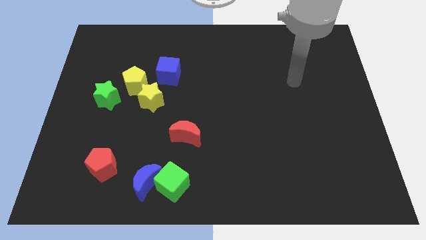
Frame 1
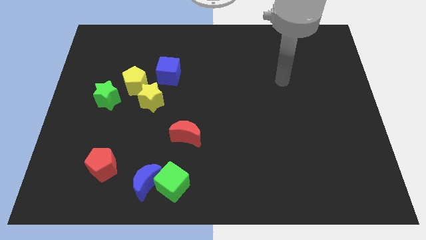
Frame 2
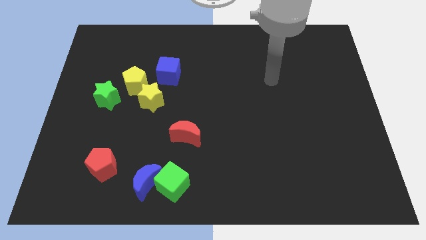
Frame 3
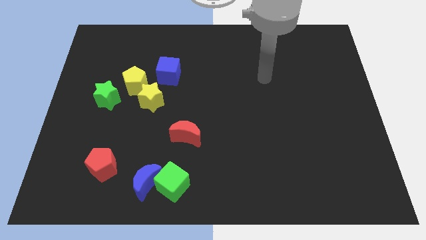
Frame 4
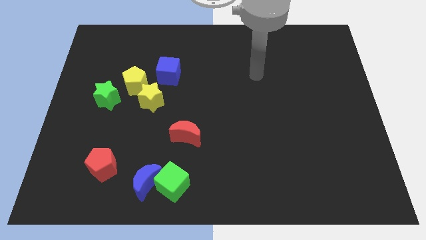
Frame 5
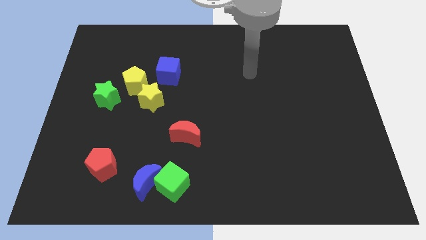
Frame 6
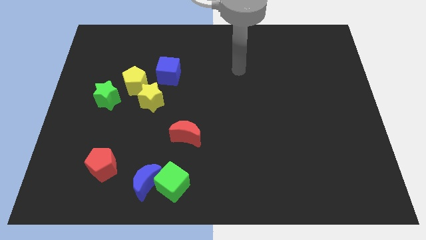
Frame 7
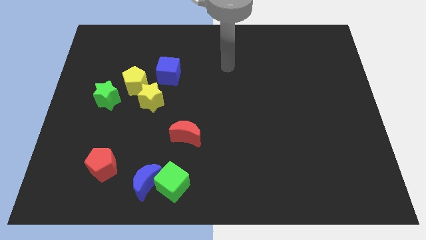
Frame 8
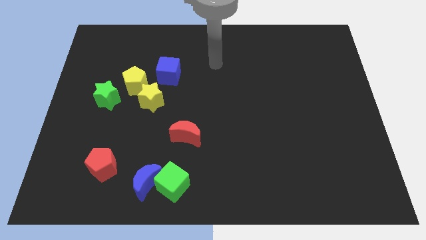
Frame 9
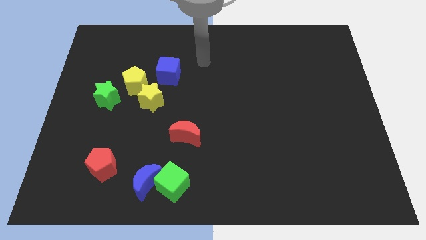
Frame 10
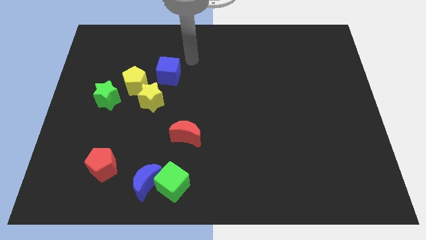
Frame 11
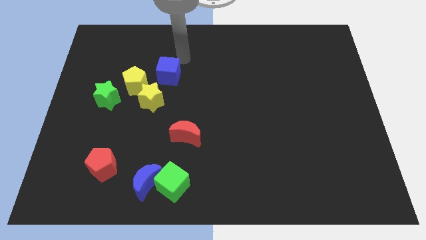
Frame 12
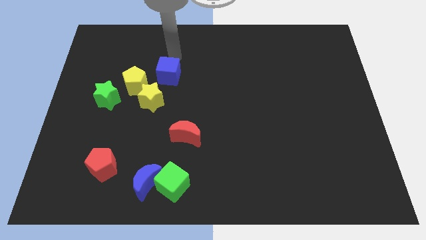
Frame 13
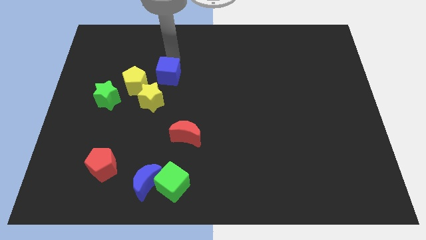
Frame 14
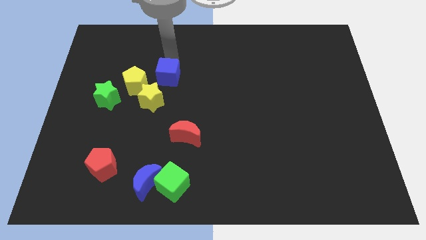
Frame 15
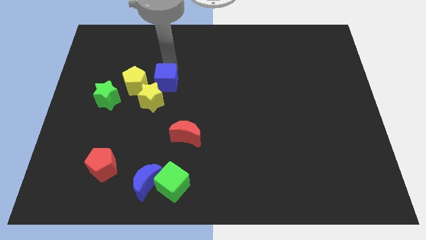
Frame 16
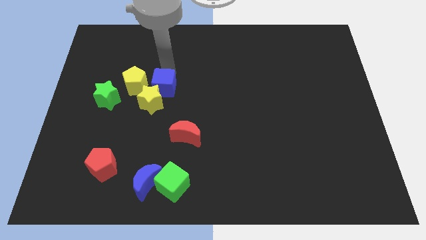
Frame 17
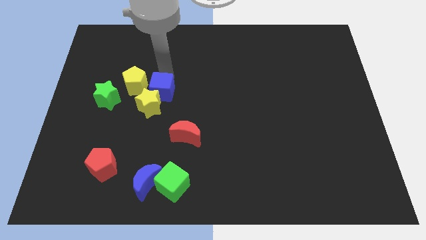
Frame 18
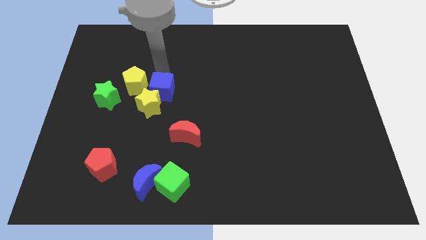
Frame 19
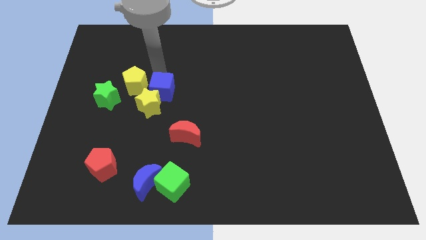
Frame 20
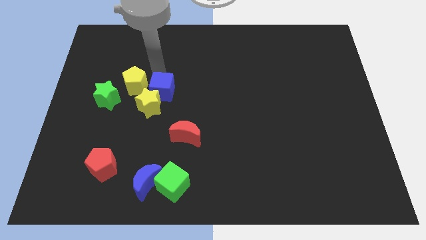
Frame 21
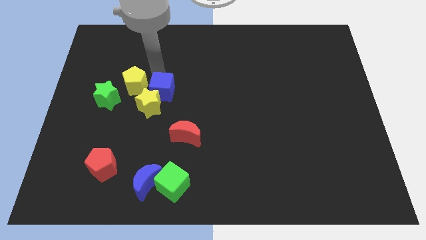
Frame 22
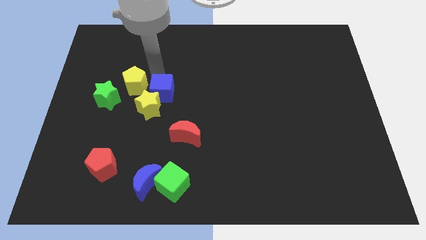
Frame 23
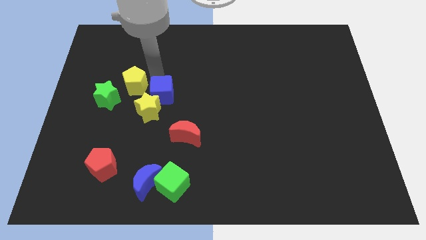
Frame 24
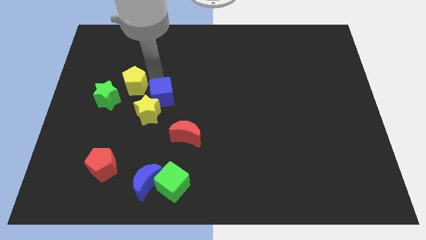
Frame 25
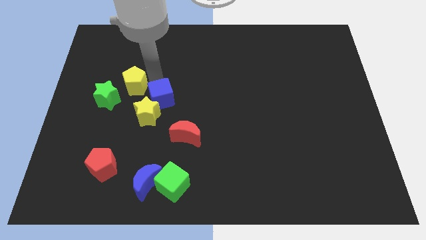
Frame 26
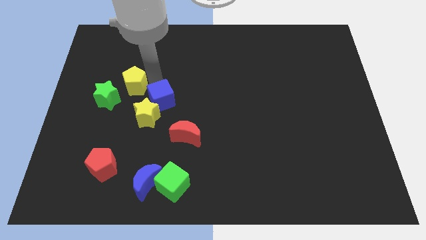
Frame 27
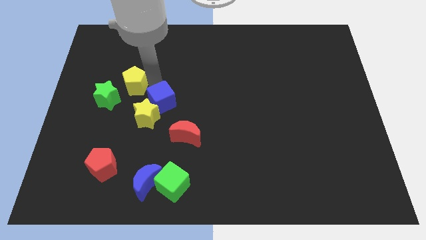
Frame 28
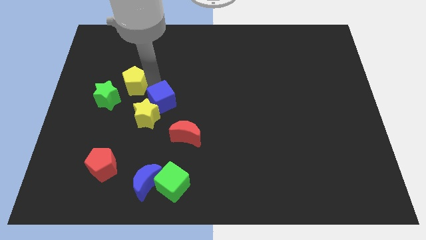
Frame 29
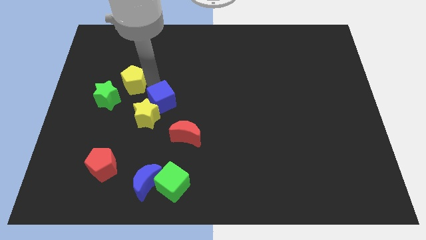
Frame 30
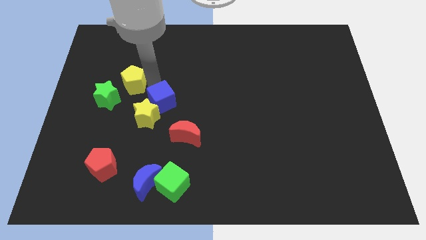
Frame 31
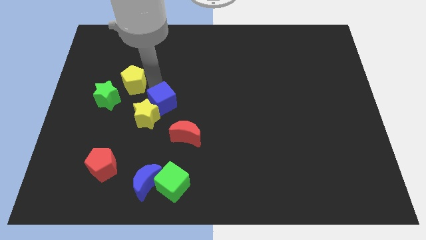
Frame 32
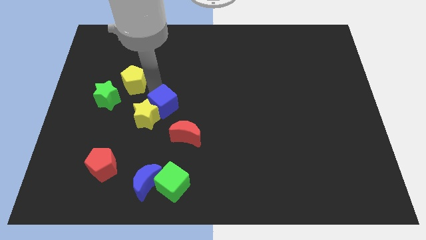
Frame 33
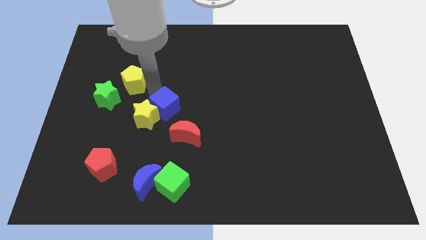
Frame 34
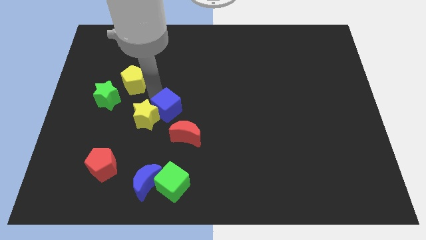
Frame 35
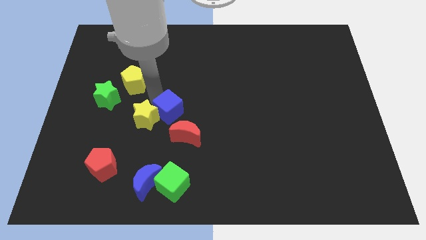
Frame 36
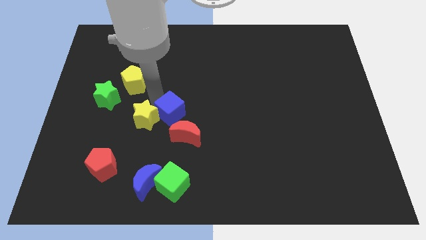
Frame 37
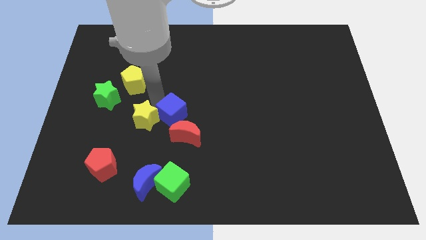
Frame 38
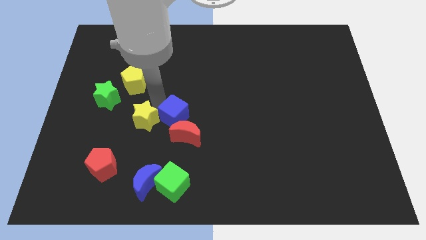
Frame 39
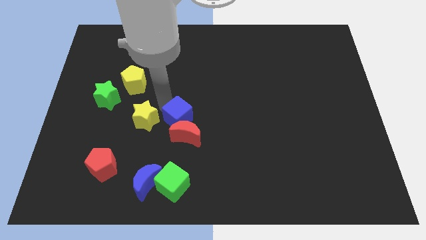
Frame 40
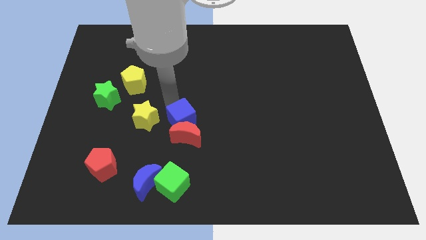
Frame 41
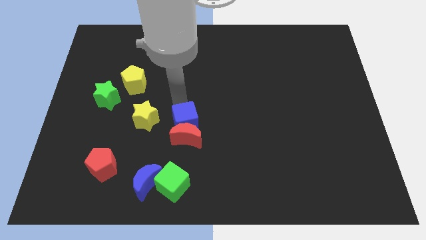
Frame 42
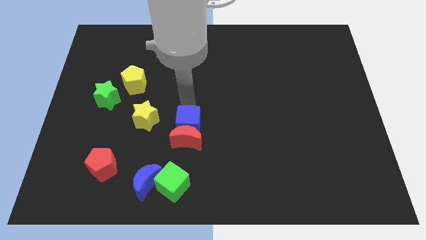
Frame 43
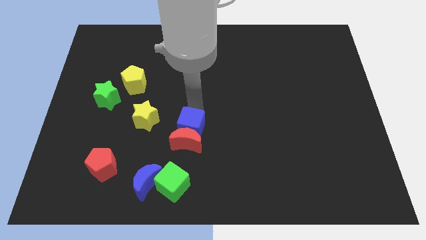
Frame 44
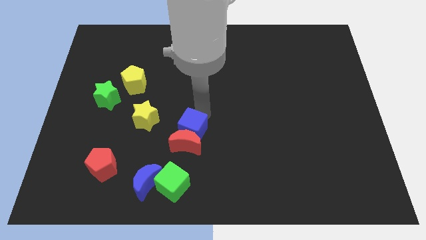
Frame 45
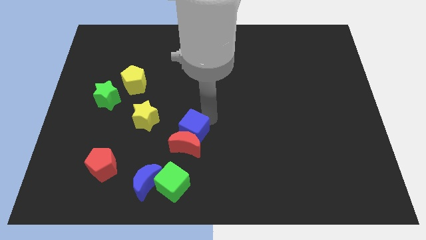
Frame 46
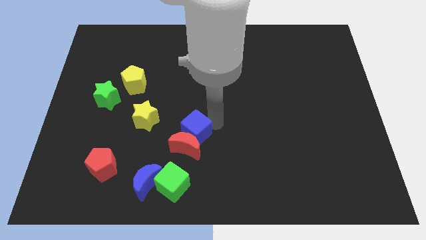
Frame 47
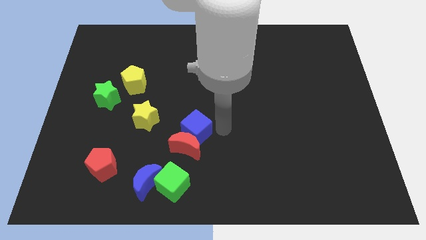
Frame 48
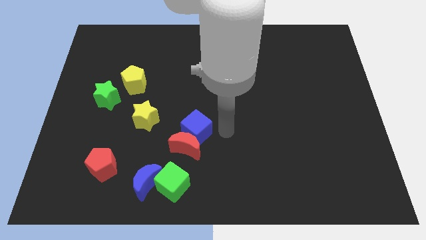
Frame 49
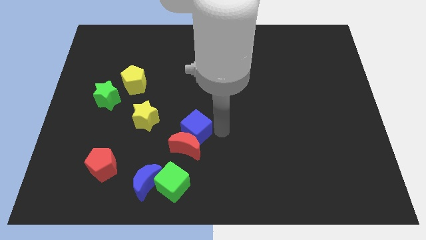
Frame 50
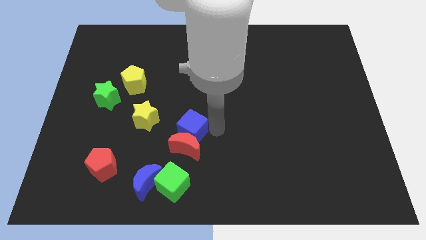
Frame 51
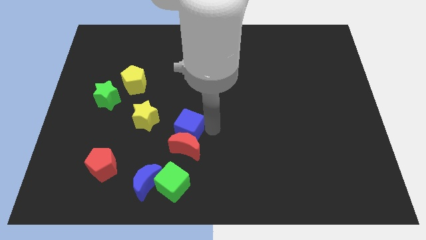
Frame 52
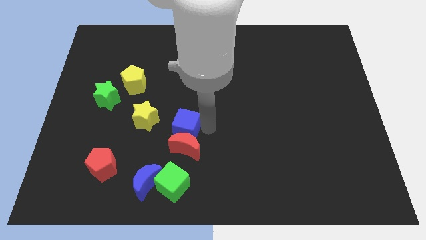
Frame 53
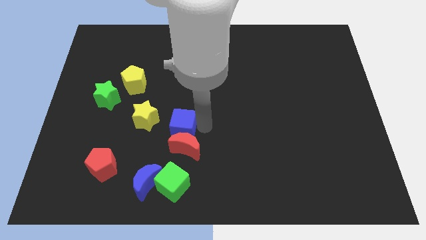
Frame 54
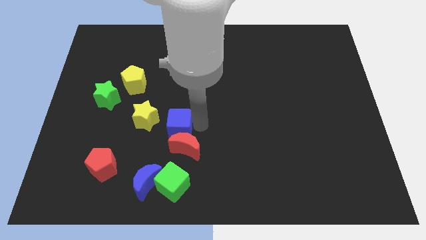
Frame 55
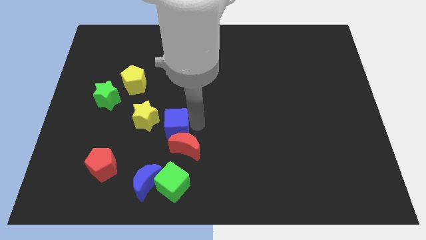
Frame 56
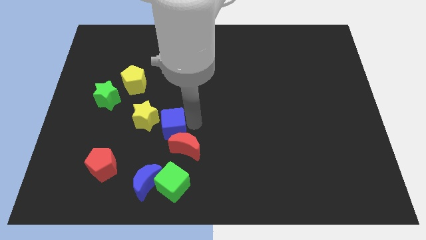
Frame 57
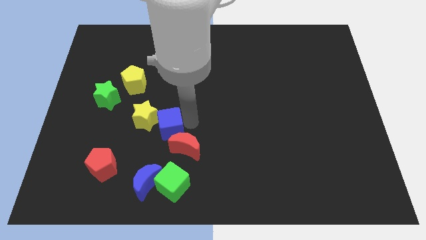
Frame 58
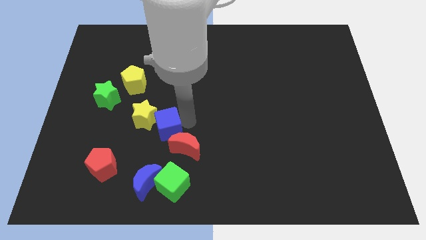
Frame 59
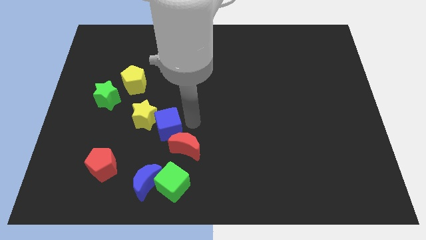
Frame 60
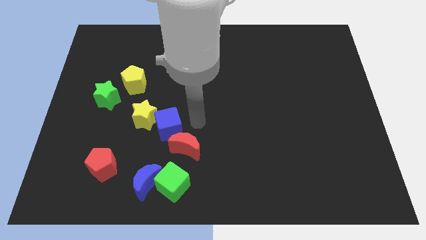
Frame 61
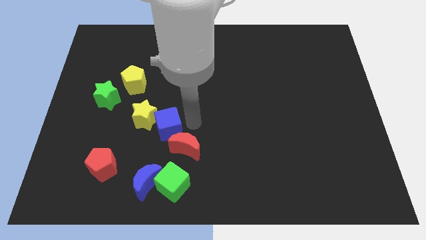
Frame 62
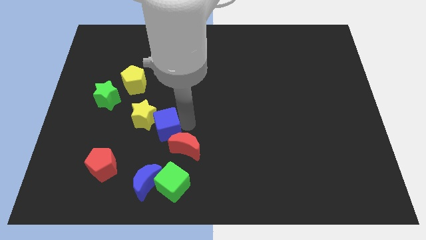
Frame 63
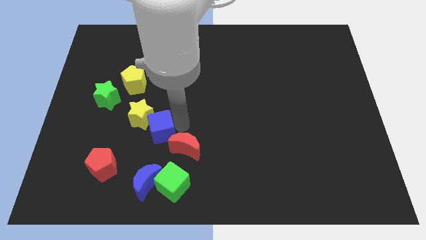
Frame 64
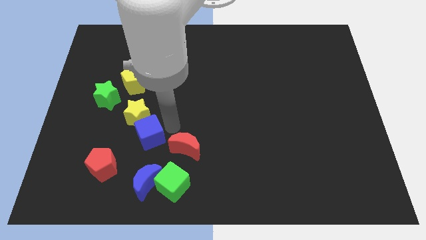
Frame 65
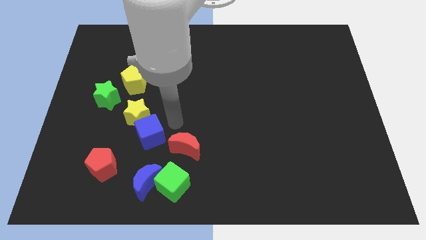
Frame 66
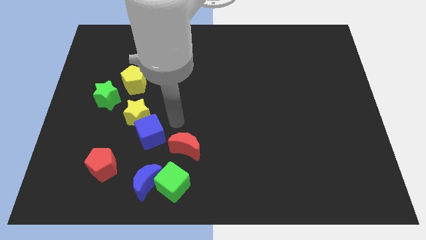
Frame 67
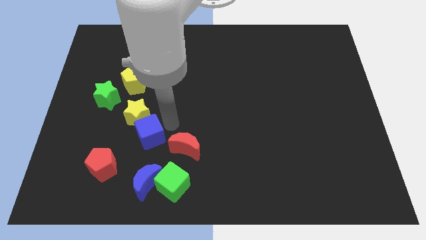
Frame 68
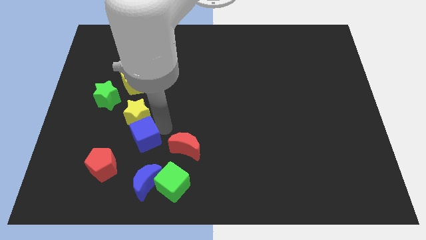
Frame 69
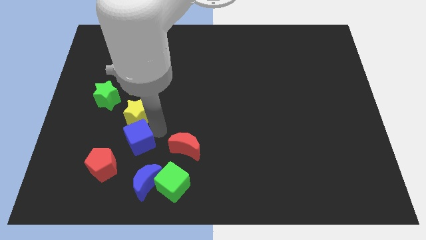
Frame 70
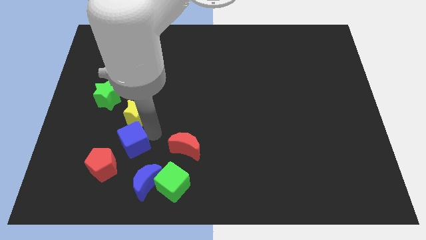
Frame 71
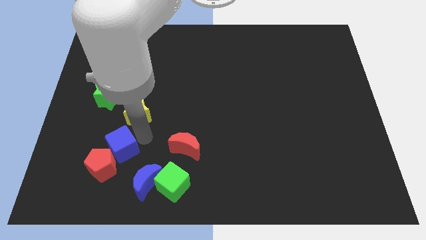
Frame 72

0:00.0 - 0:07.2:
slide the blue cube towards the red pentagon

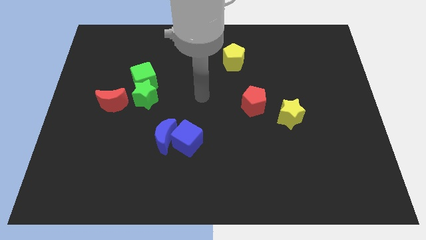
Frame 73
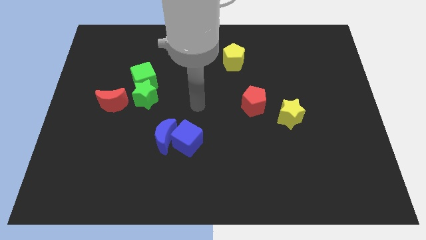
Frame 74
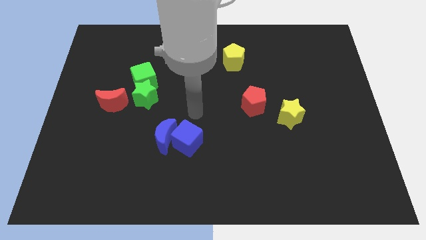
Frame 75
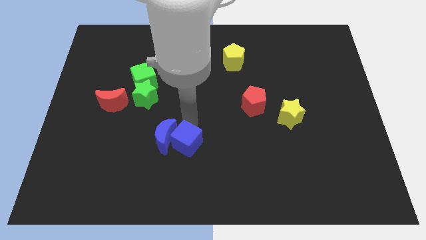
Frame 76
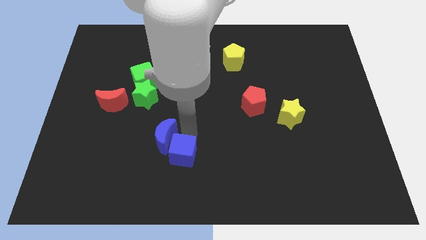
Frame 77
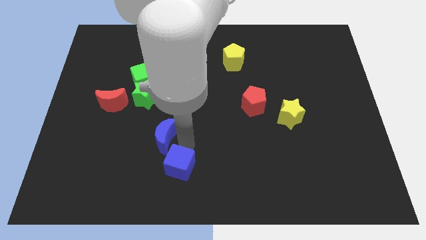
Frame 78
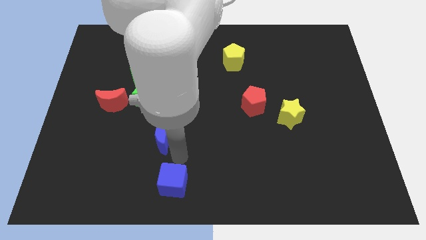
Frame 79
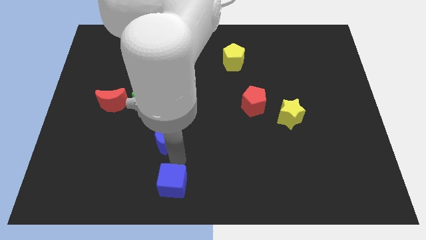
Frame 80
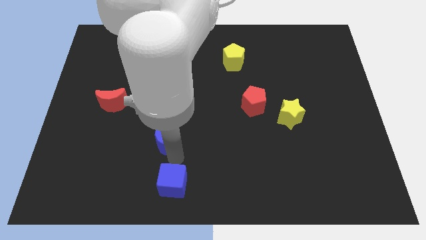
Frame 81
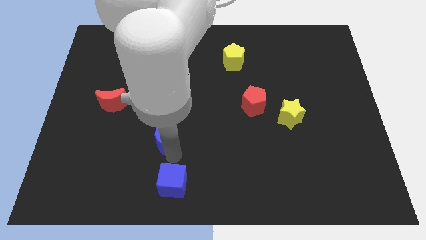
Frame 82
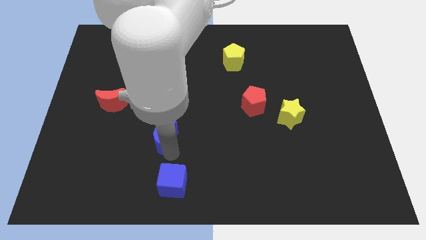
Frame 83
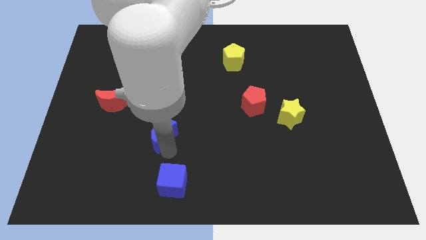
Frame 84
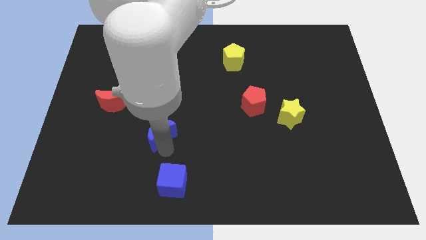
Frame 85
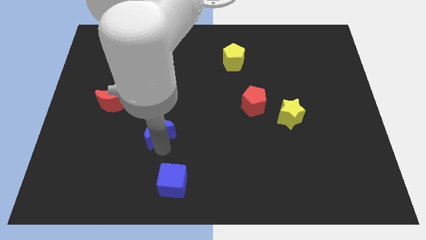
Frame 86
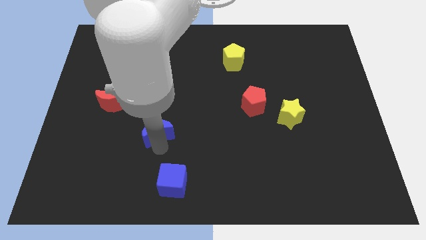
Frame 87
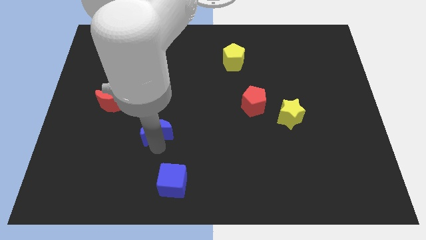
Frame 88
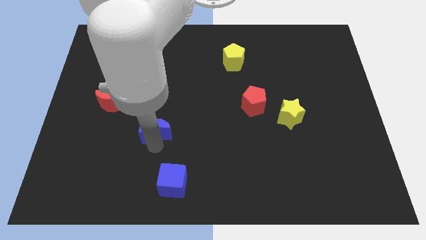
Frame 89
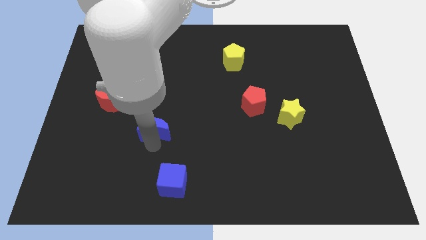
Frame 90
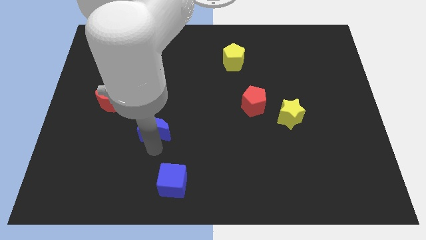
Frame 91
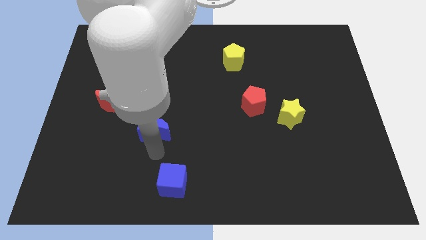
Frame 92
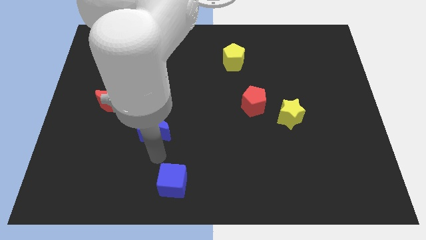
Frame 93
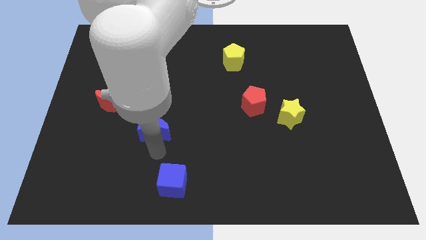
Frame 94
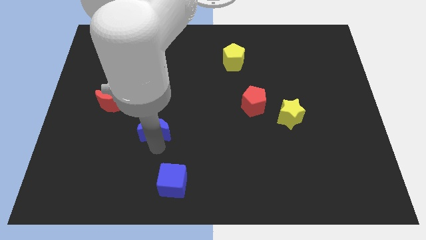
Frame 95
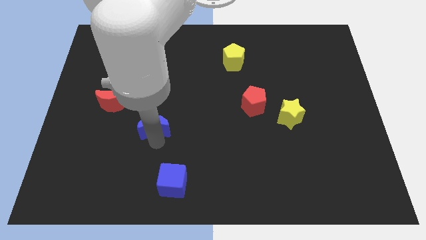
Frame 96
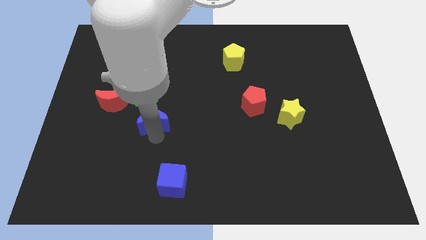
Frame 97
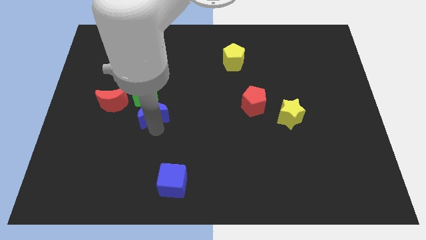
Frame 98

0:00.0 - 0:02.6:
move the blue moon towards the green star
